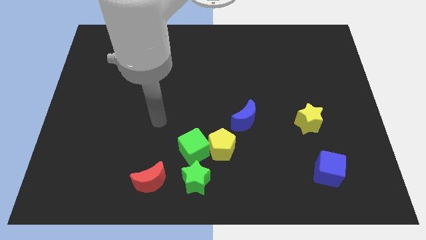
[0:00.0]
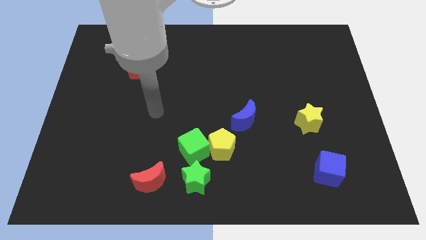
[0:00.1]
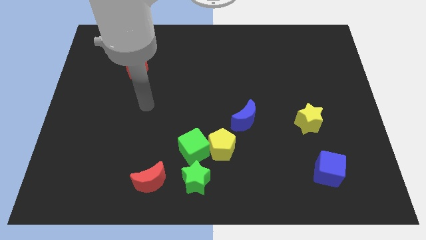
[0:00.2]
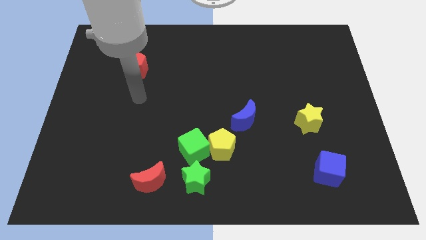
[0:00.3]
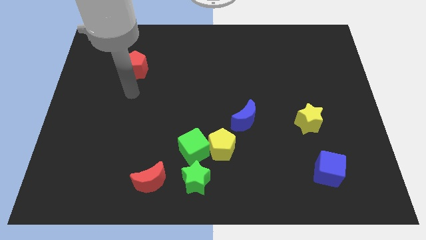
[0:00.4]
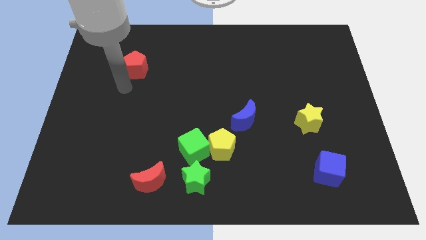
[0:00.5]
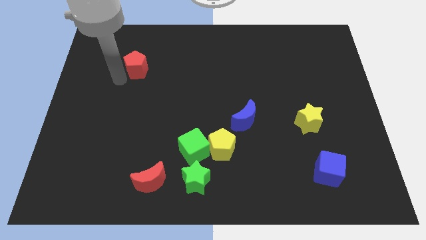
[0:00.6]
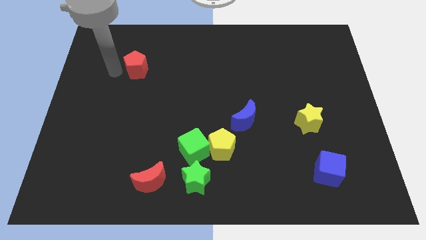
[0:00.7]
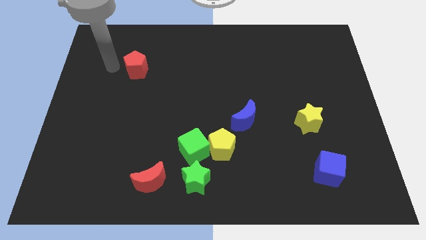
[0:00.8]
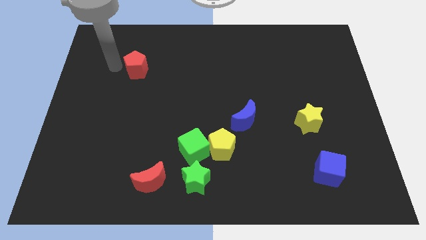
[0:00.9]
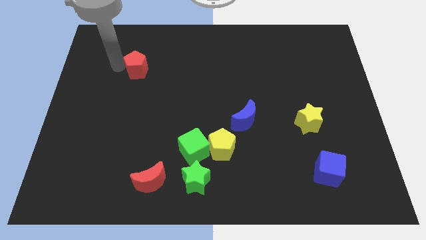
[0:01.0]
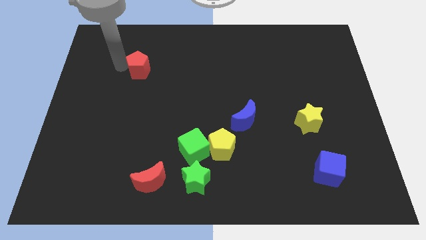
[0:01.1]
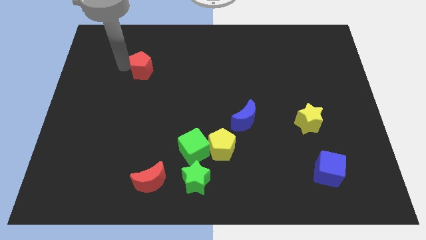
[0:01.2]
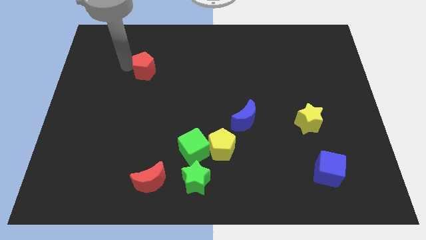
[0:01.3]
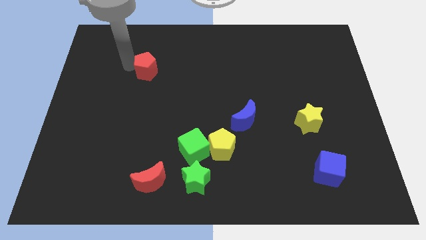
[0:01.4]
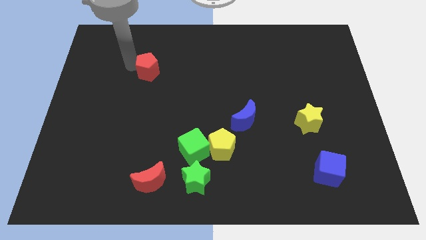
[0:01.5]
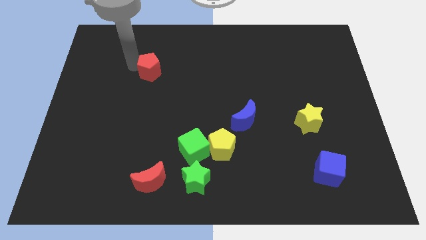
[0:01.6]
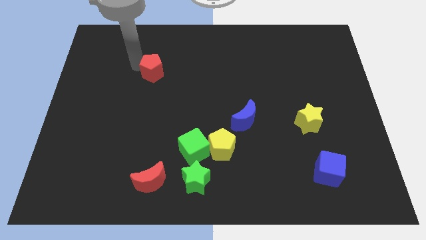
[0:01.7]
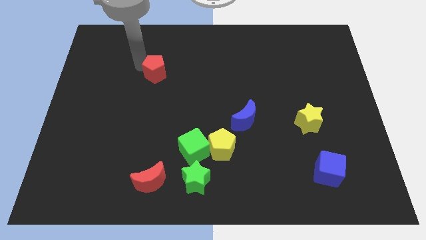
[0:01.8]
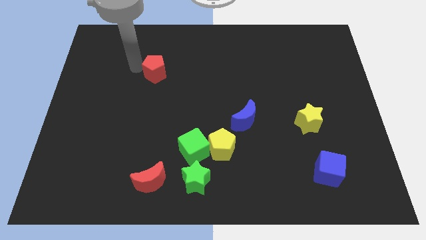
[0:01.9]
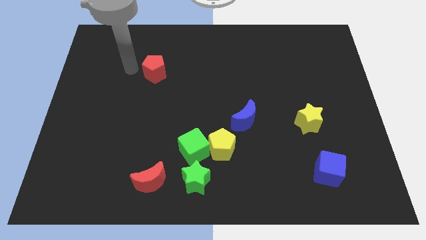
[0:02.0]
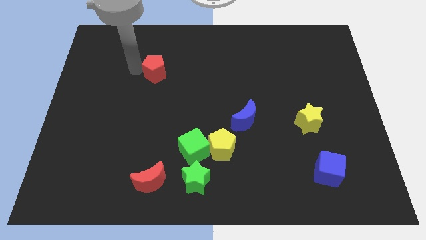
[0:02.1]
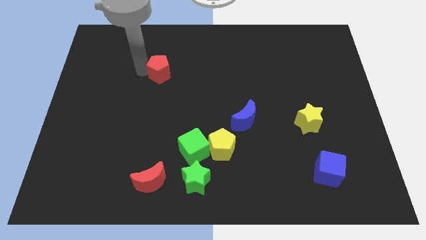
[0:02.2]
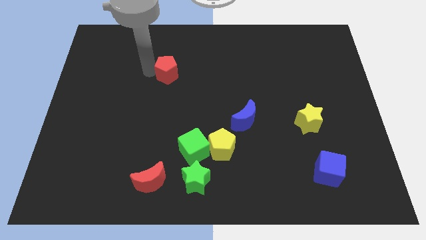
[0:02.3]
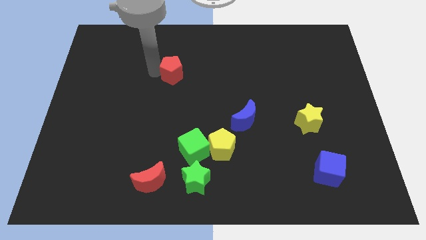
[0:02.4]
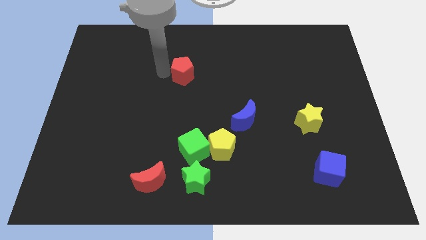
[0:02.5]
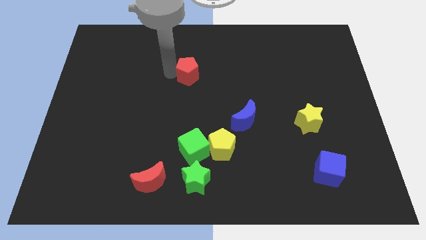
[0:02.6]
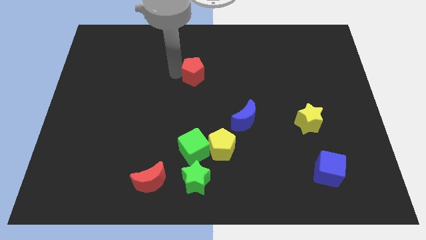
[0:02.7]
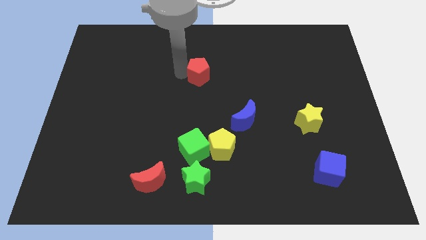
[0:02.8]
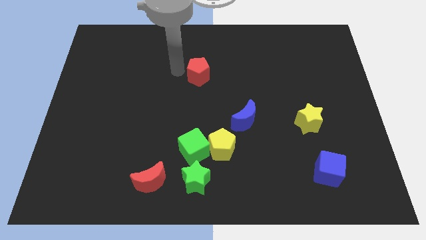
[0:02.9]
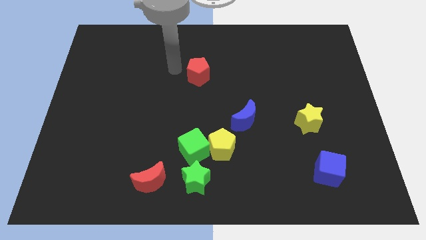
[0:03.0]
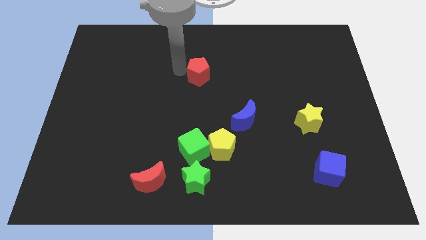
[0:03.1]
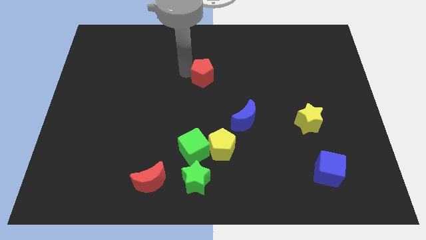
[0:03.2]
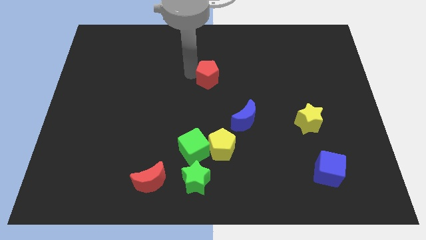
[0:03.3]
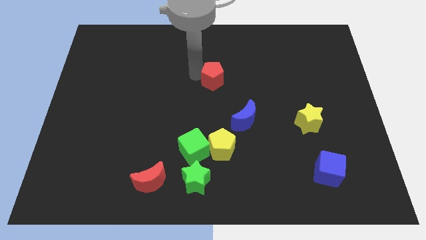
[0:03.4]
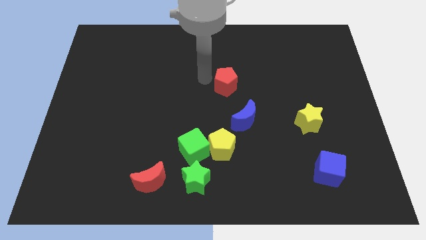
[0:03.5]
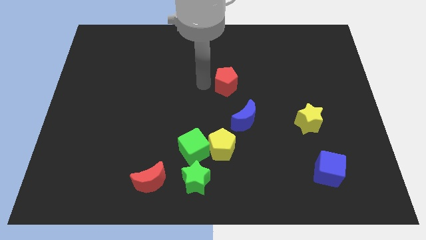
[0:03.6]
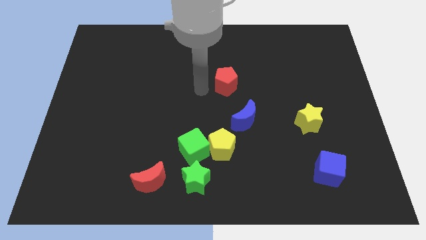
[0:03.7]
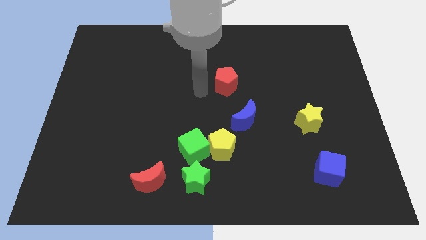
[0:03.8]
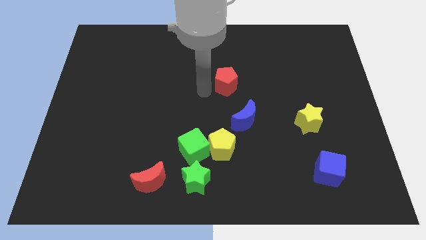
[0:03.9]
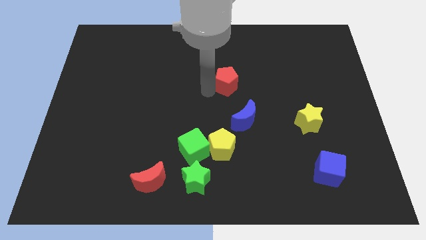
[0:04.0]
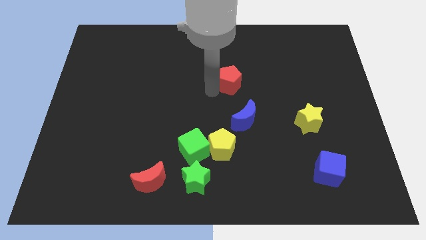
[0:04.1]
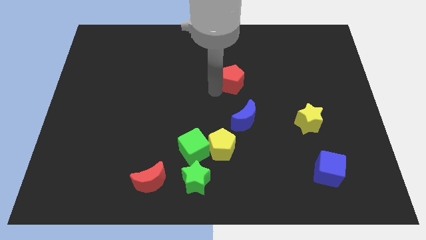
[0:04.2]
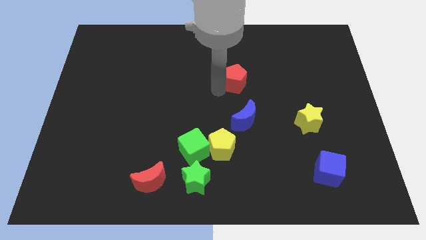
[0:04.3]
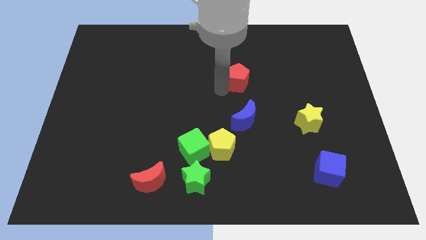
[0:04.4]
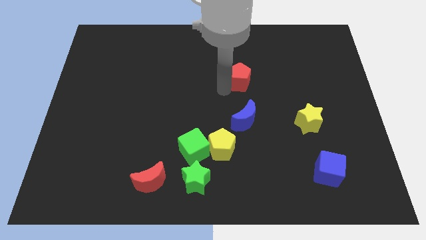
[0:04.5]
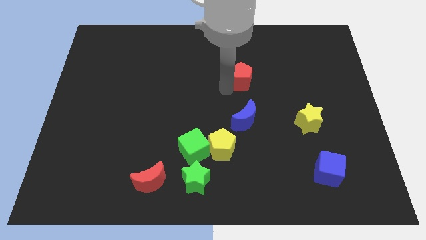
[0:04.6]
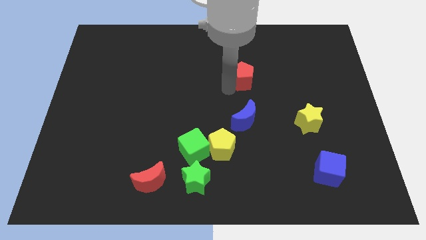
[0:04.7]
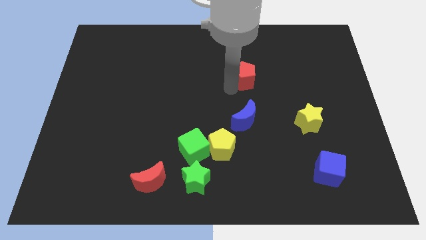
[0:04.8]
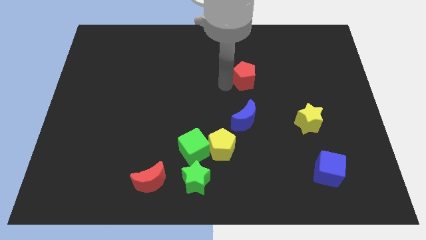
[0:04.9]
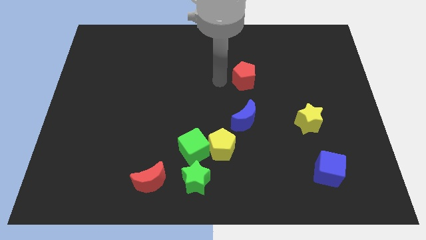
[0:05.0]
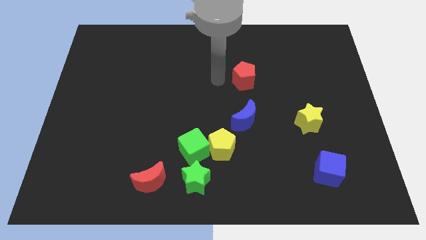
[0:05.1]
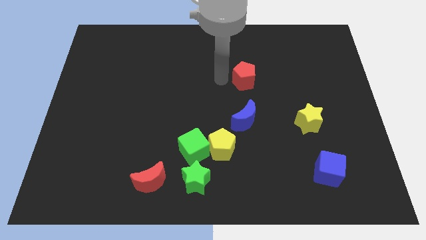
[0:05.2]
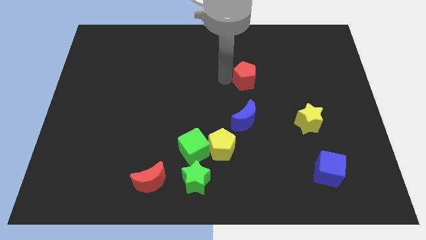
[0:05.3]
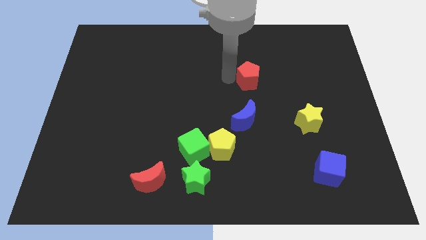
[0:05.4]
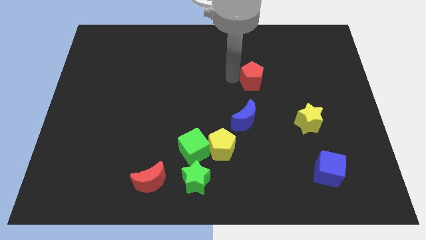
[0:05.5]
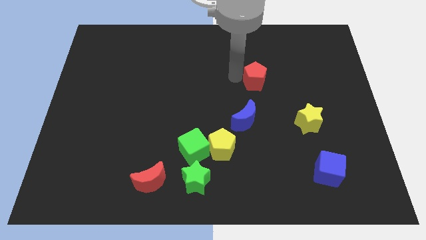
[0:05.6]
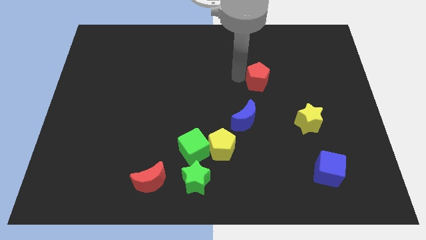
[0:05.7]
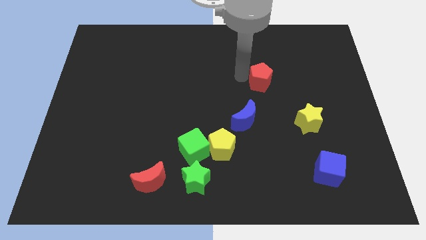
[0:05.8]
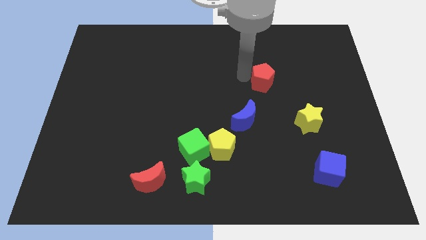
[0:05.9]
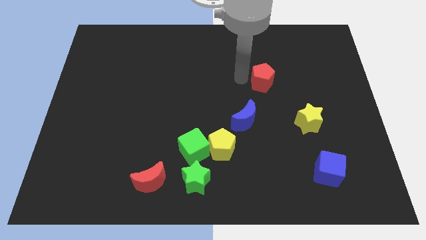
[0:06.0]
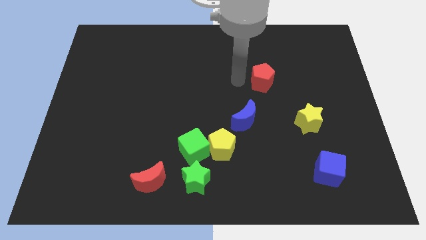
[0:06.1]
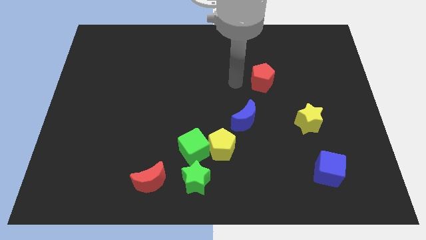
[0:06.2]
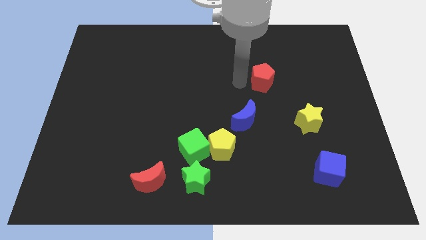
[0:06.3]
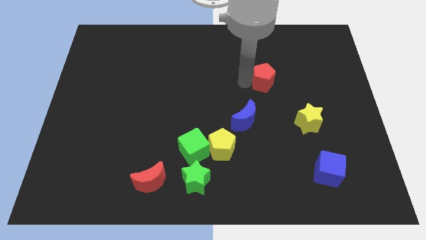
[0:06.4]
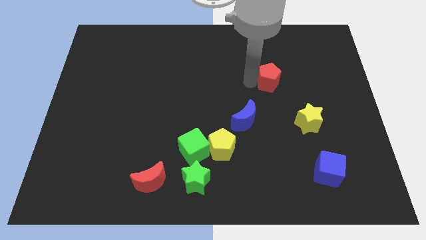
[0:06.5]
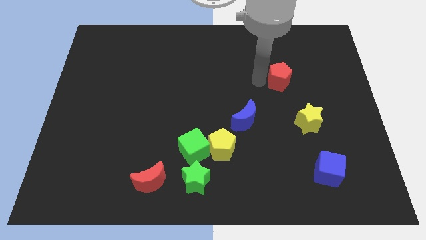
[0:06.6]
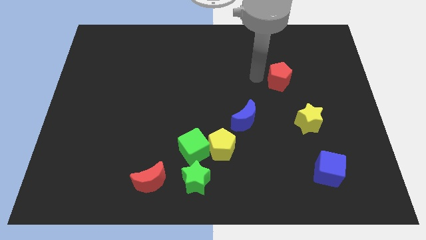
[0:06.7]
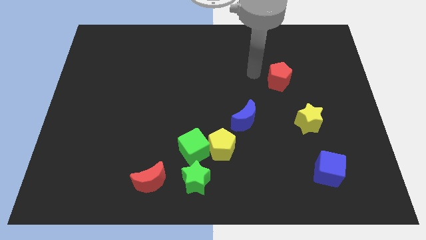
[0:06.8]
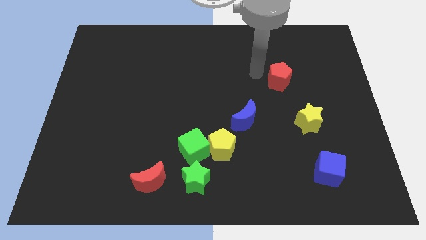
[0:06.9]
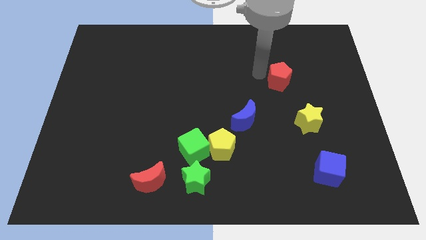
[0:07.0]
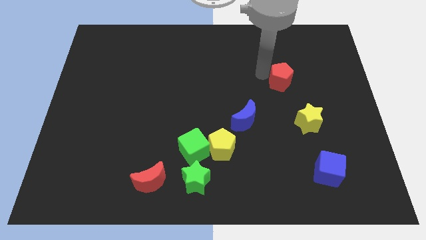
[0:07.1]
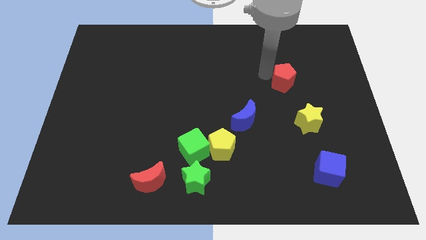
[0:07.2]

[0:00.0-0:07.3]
move the red pentagon to the top side of the yellow star
